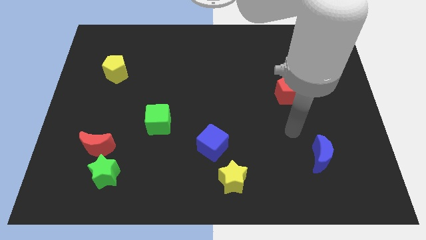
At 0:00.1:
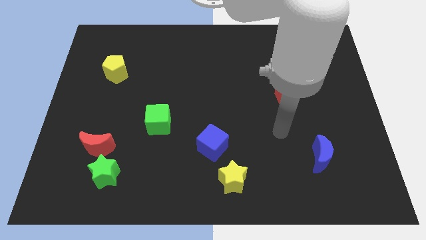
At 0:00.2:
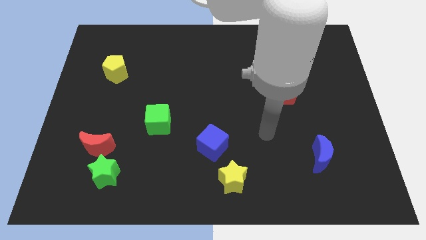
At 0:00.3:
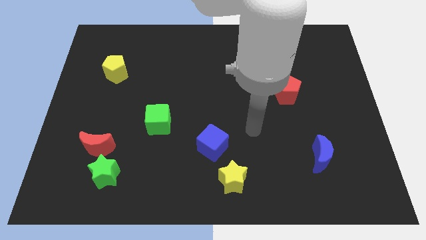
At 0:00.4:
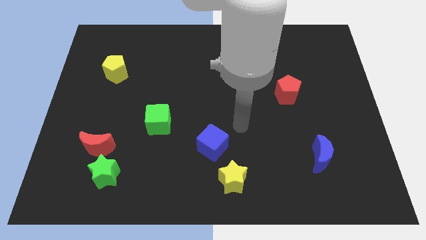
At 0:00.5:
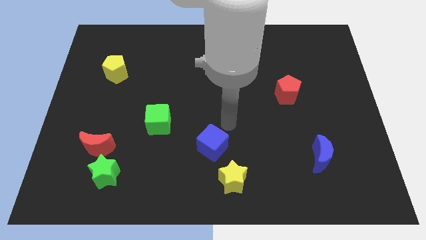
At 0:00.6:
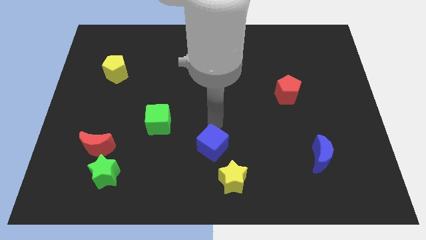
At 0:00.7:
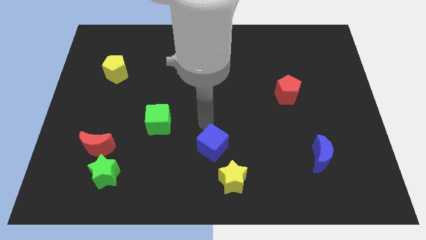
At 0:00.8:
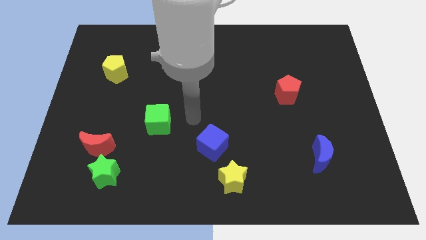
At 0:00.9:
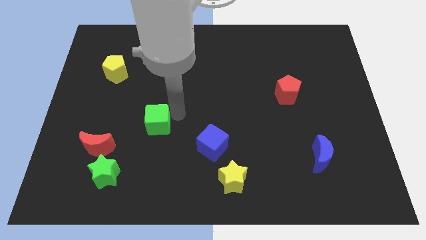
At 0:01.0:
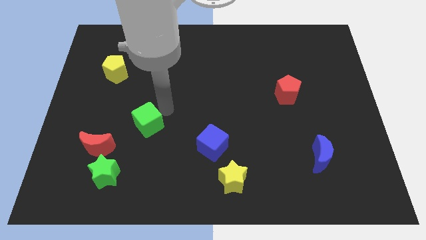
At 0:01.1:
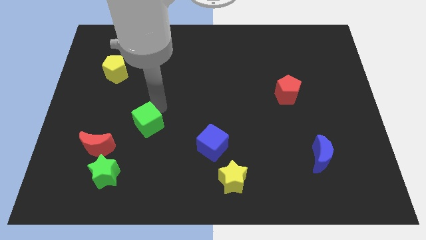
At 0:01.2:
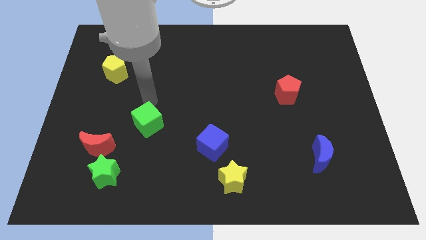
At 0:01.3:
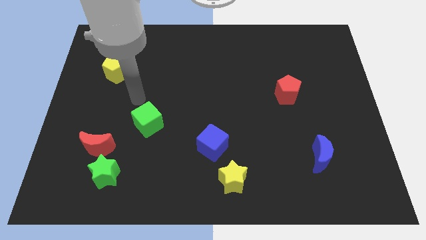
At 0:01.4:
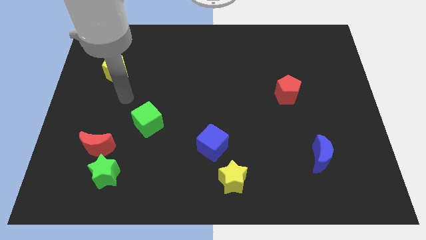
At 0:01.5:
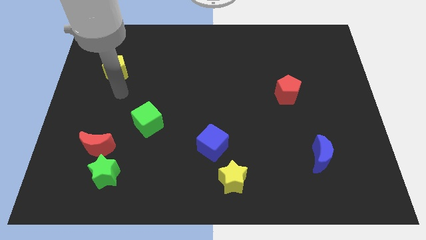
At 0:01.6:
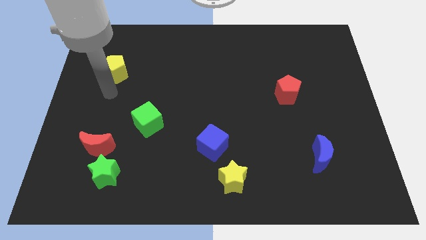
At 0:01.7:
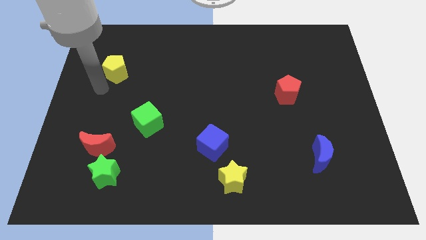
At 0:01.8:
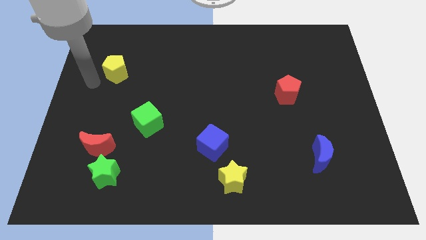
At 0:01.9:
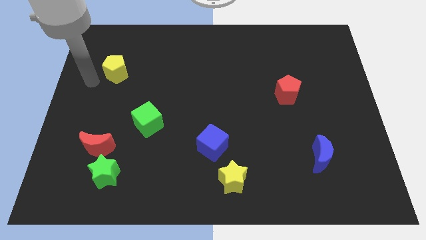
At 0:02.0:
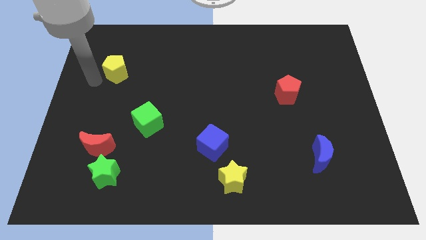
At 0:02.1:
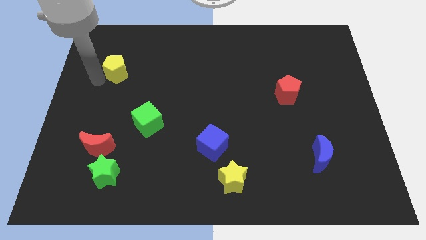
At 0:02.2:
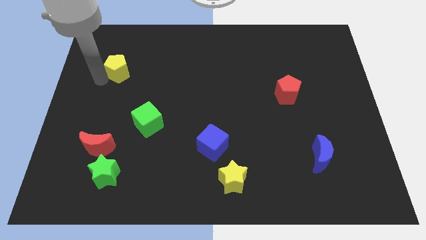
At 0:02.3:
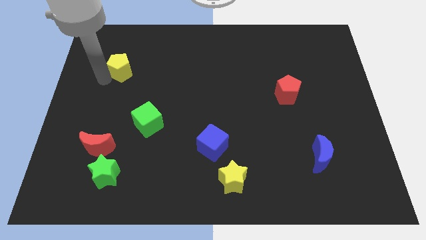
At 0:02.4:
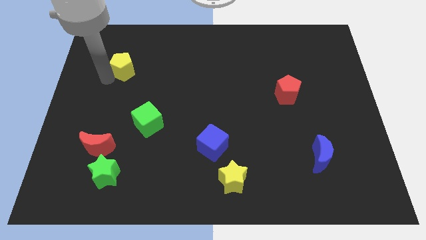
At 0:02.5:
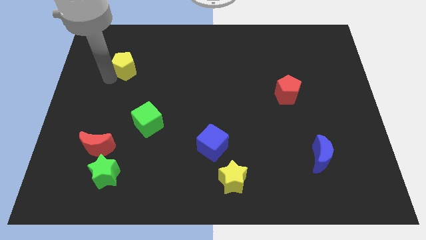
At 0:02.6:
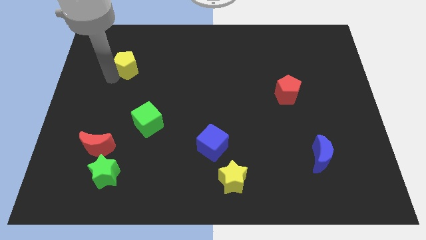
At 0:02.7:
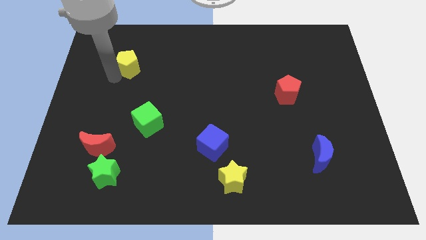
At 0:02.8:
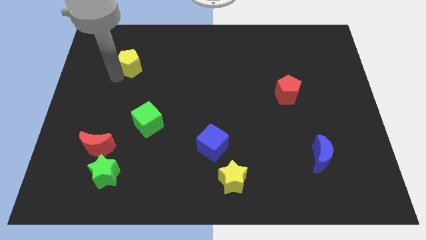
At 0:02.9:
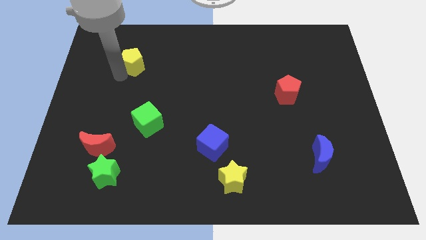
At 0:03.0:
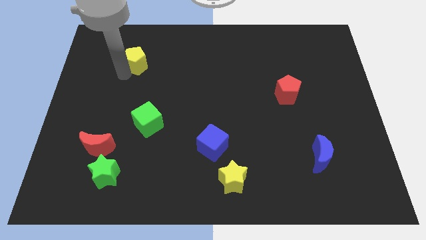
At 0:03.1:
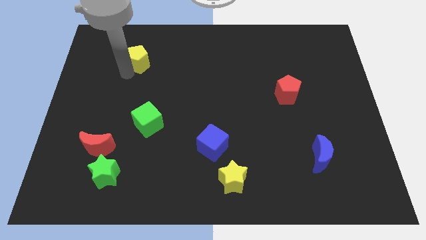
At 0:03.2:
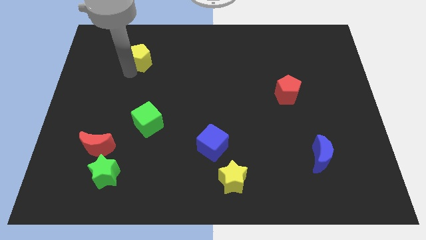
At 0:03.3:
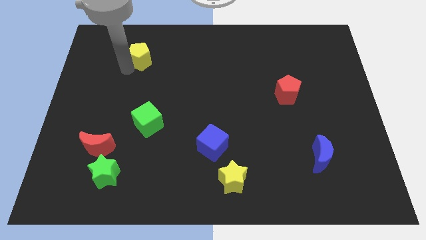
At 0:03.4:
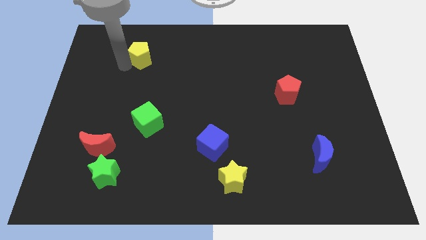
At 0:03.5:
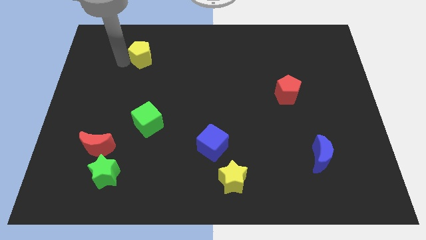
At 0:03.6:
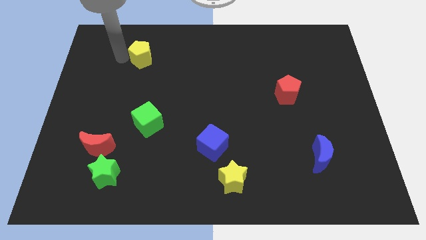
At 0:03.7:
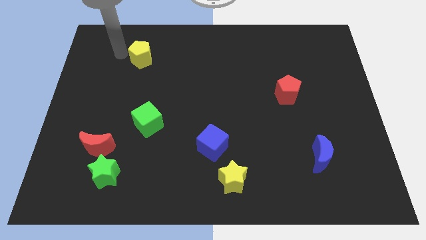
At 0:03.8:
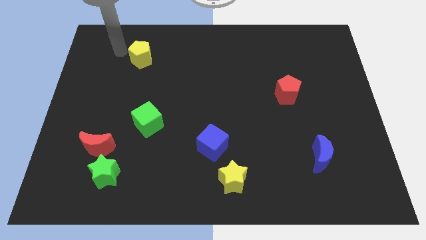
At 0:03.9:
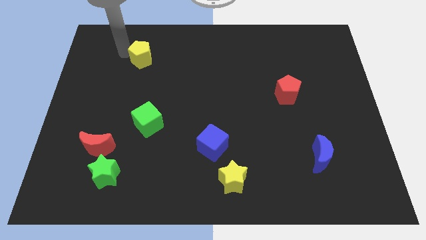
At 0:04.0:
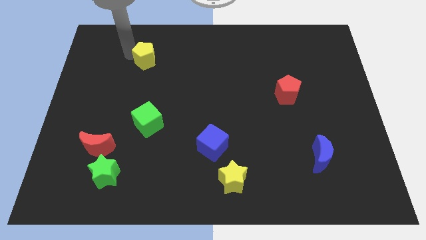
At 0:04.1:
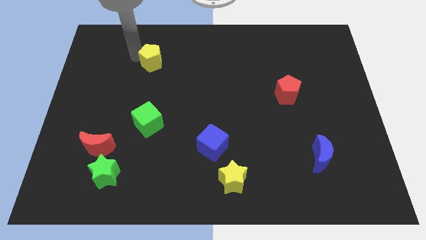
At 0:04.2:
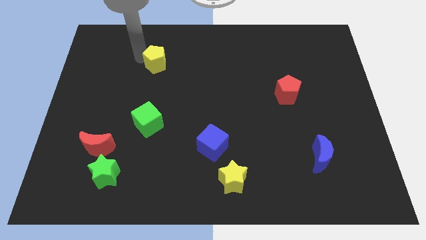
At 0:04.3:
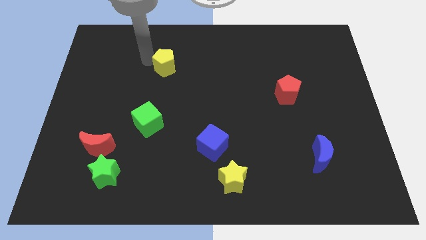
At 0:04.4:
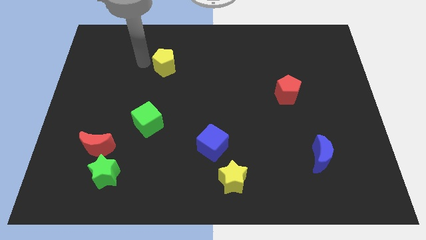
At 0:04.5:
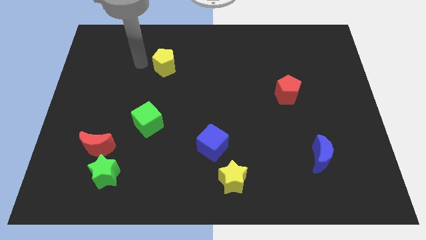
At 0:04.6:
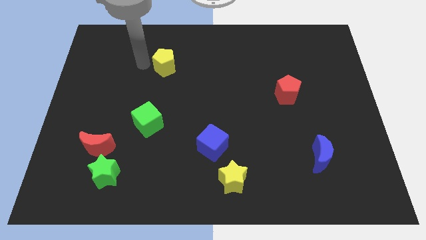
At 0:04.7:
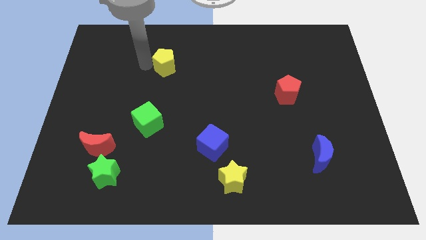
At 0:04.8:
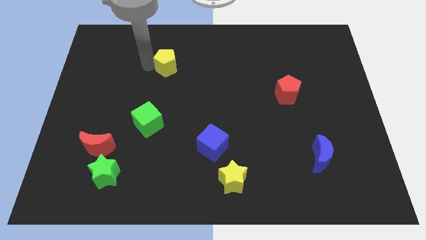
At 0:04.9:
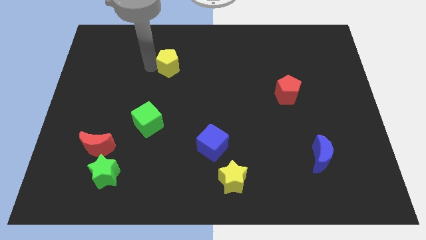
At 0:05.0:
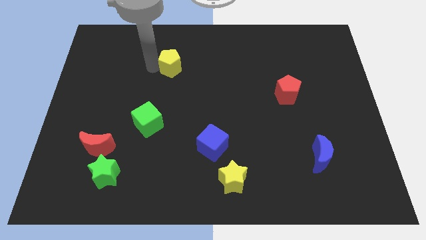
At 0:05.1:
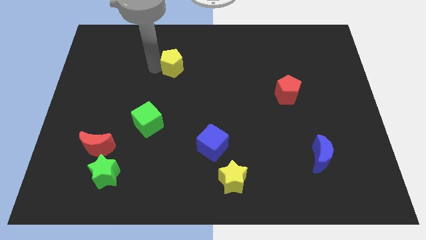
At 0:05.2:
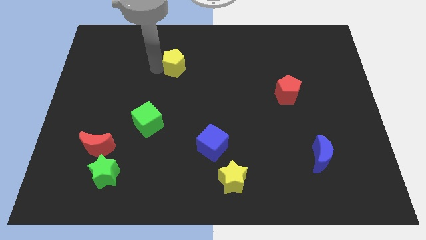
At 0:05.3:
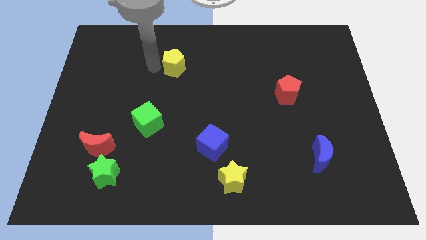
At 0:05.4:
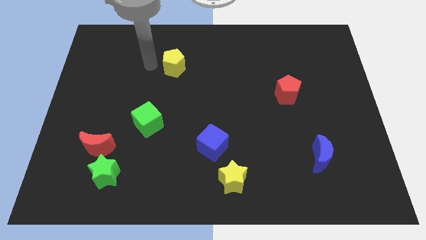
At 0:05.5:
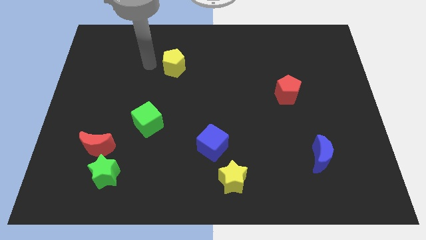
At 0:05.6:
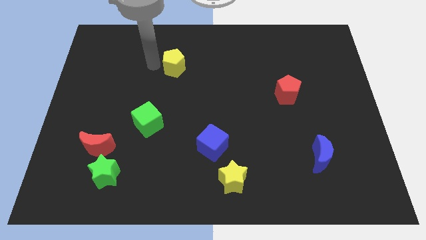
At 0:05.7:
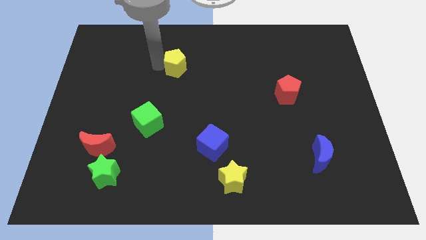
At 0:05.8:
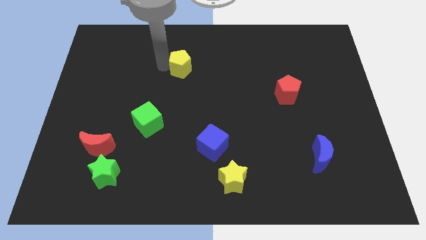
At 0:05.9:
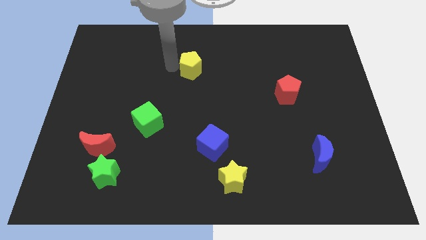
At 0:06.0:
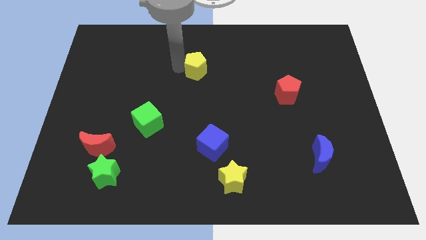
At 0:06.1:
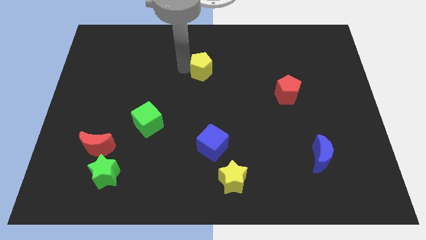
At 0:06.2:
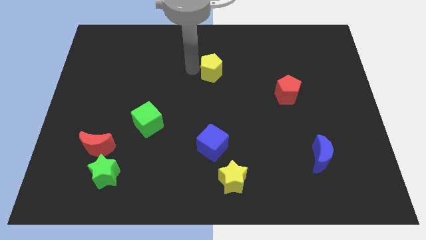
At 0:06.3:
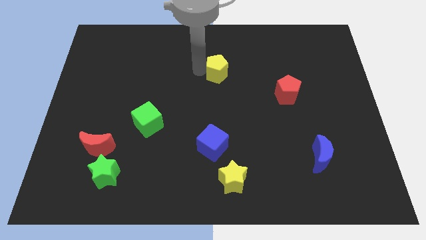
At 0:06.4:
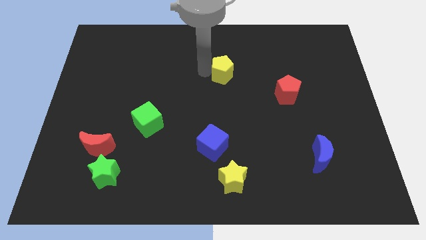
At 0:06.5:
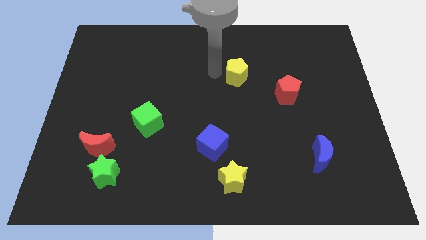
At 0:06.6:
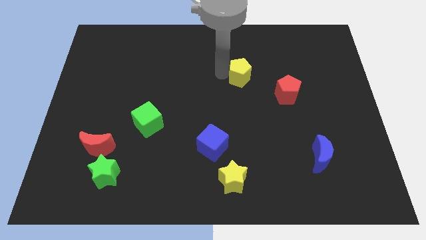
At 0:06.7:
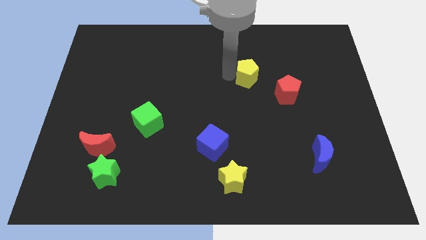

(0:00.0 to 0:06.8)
move the yellow pentagon diagonally up and to the left of the red pentagon

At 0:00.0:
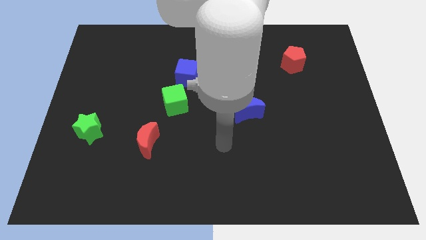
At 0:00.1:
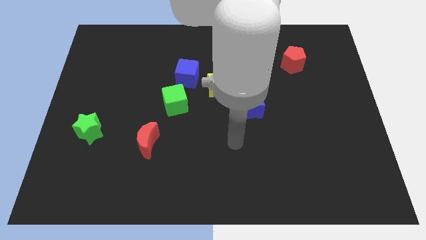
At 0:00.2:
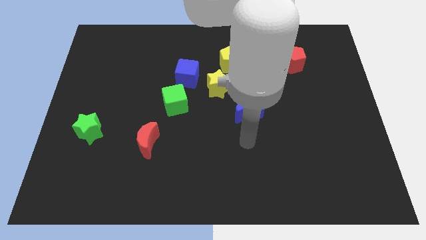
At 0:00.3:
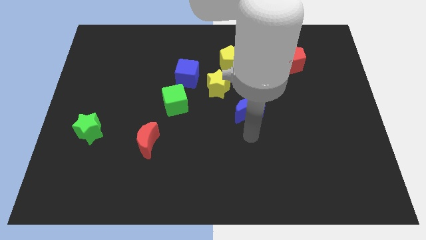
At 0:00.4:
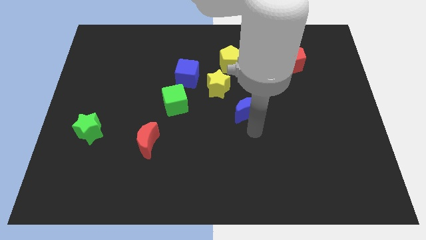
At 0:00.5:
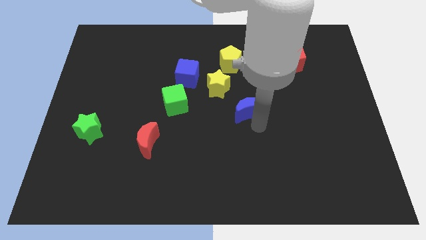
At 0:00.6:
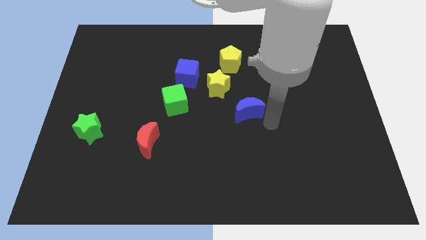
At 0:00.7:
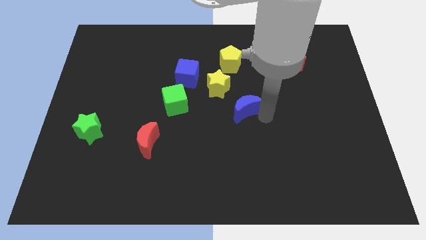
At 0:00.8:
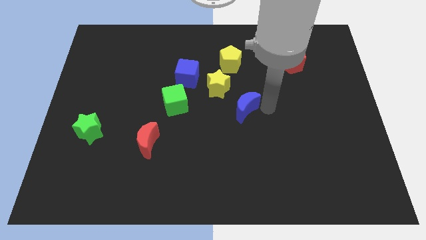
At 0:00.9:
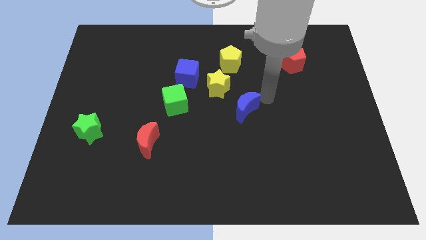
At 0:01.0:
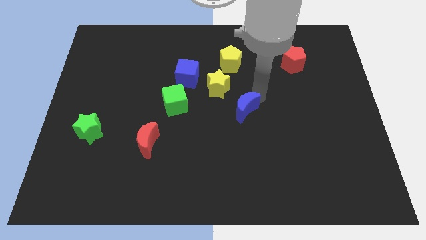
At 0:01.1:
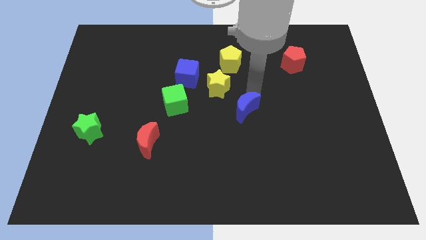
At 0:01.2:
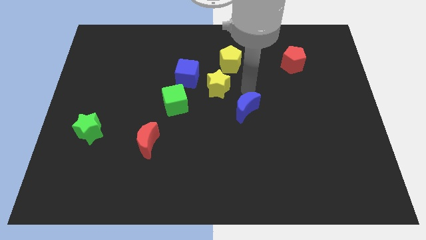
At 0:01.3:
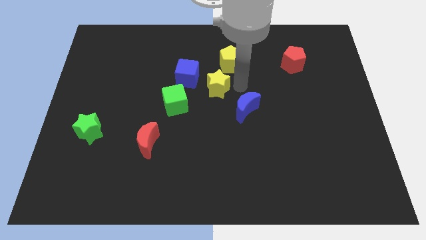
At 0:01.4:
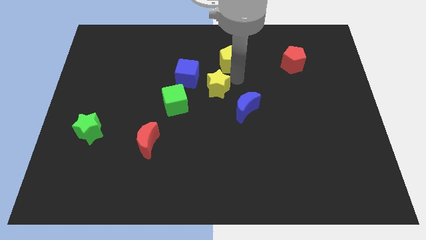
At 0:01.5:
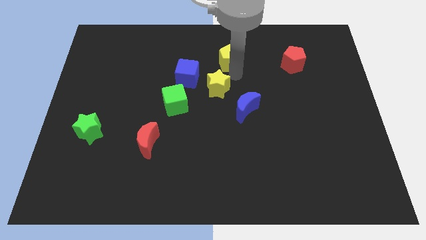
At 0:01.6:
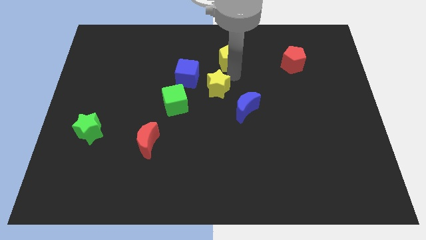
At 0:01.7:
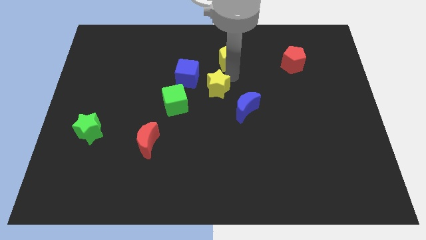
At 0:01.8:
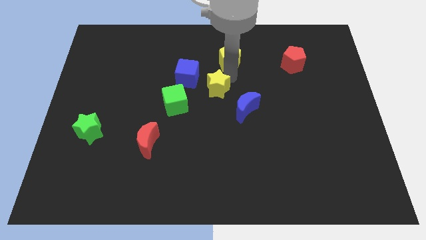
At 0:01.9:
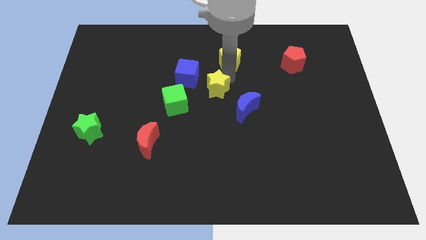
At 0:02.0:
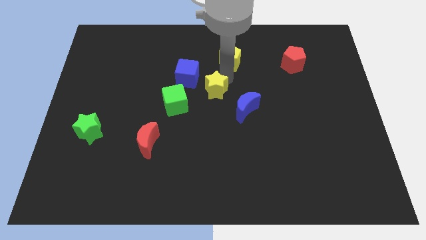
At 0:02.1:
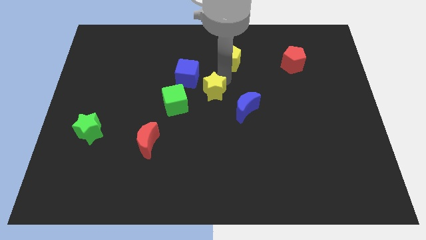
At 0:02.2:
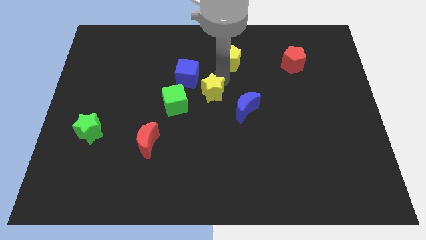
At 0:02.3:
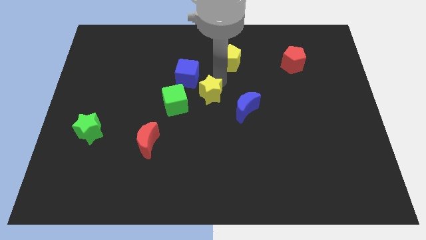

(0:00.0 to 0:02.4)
slide the yellow star to the left side of the blue moon
